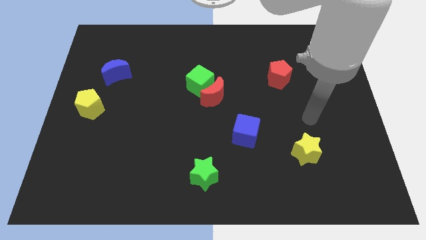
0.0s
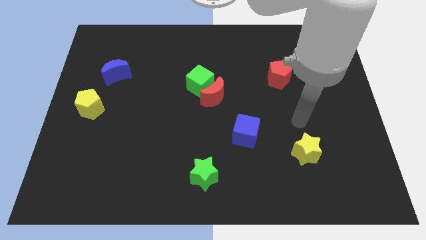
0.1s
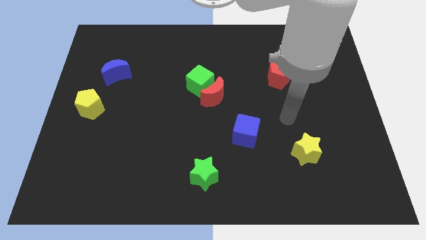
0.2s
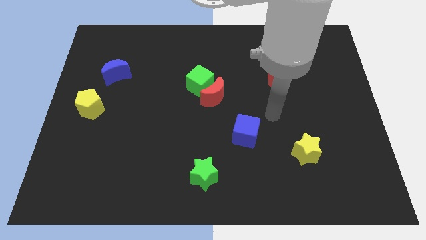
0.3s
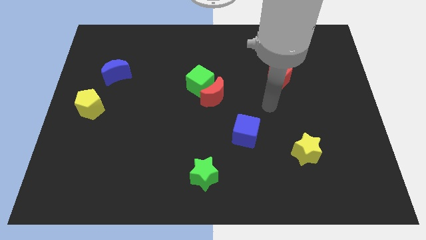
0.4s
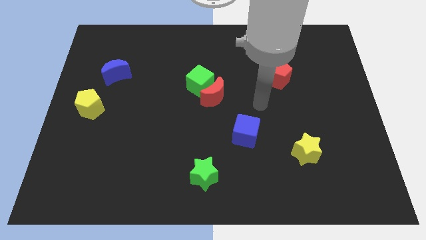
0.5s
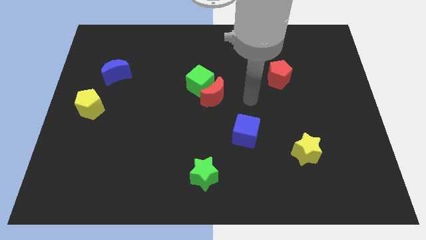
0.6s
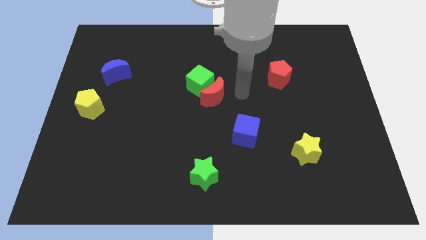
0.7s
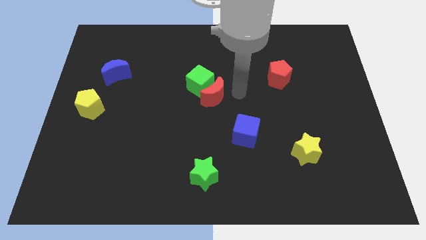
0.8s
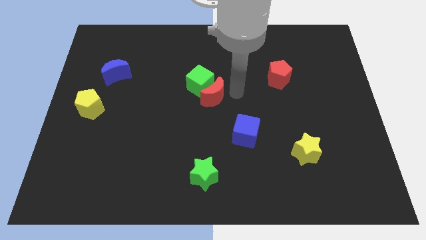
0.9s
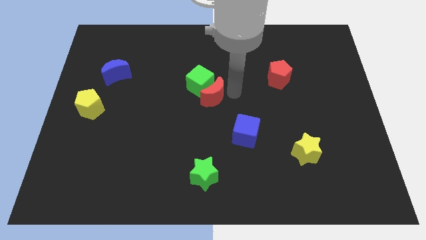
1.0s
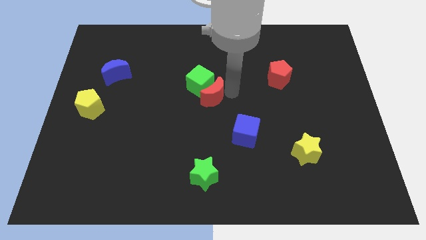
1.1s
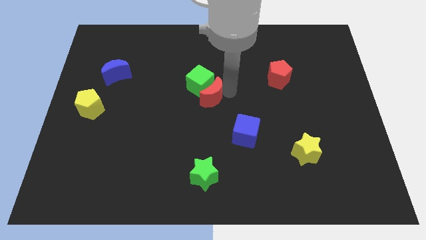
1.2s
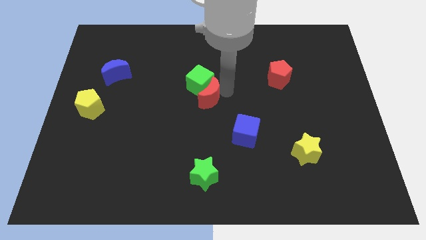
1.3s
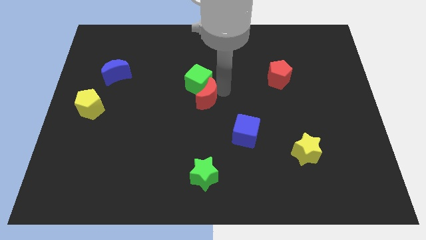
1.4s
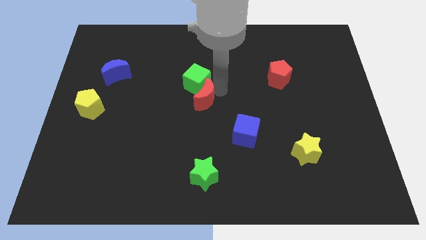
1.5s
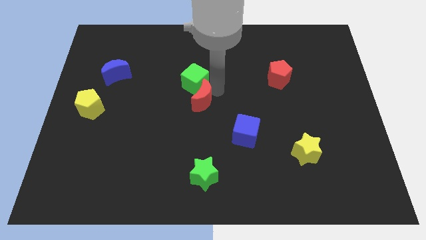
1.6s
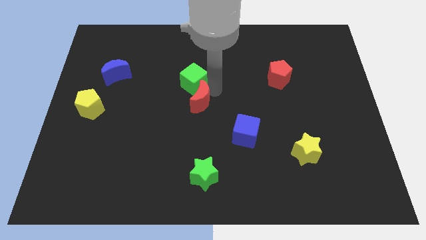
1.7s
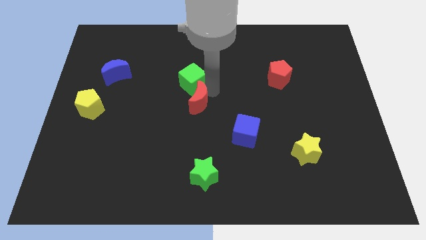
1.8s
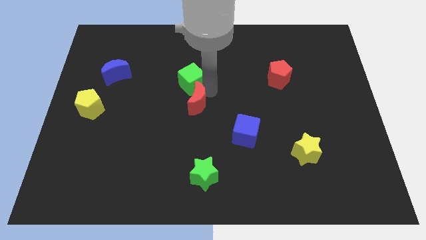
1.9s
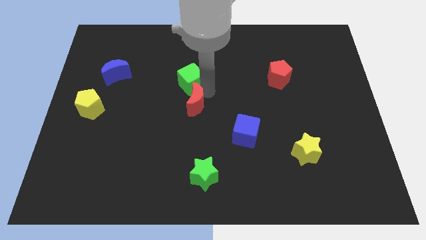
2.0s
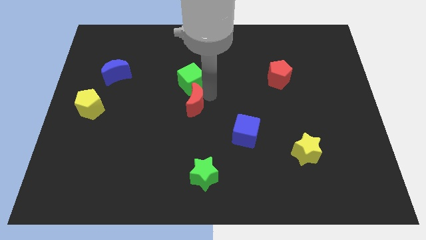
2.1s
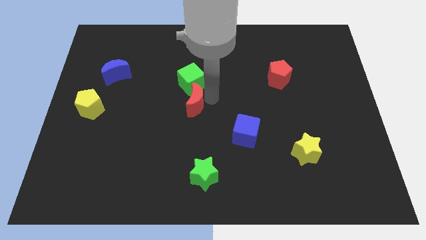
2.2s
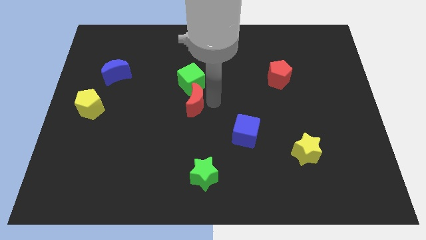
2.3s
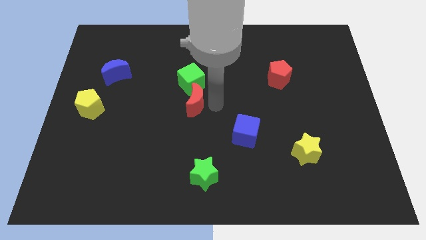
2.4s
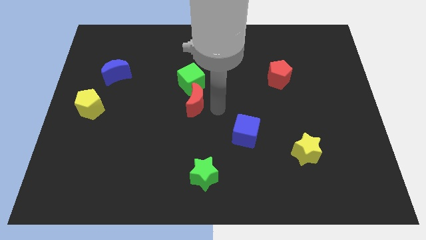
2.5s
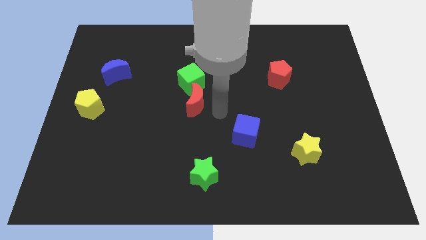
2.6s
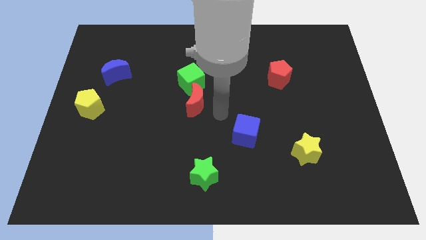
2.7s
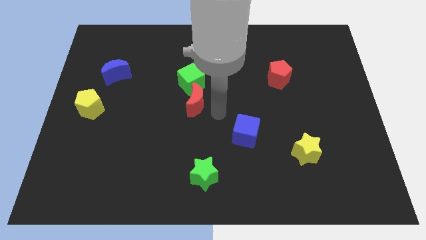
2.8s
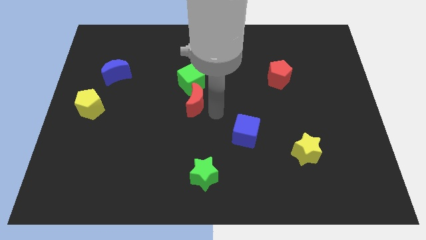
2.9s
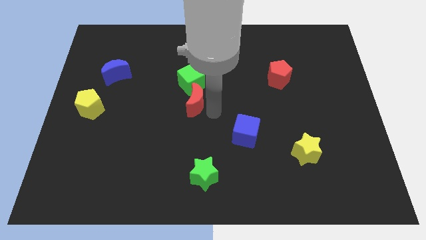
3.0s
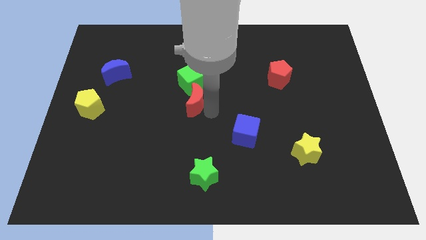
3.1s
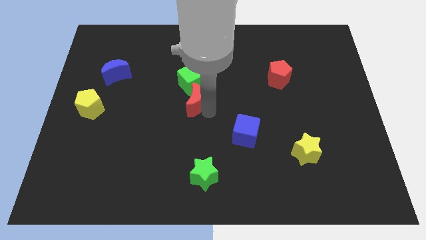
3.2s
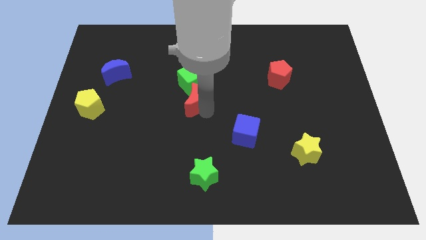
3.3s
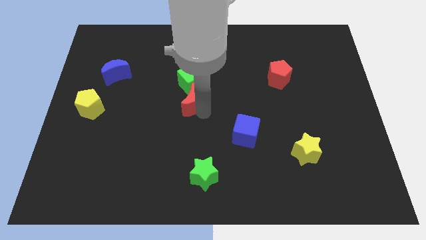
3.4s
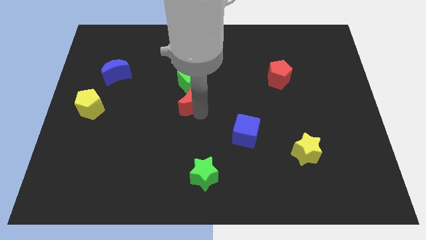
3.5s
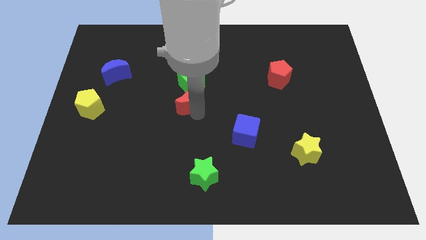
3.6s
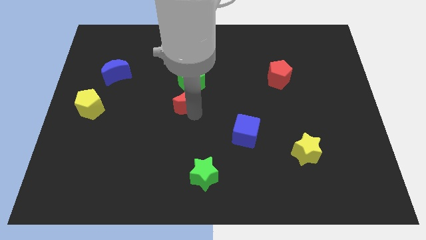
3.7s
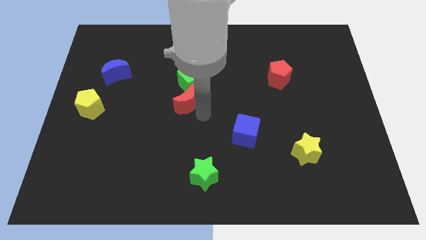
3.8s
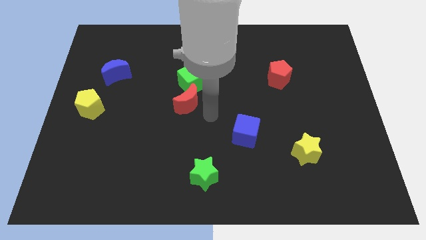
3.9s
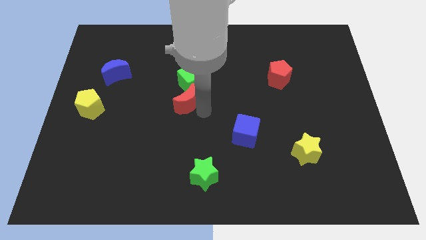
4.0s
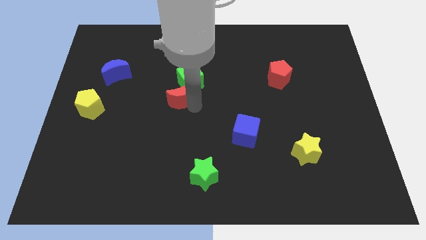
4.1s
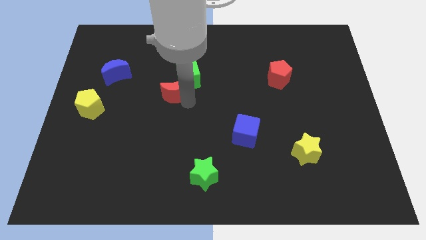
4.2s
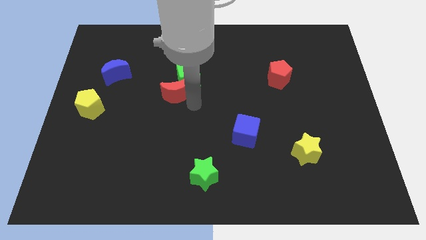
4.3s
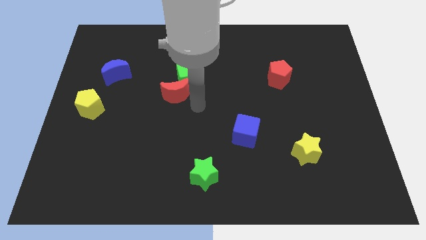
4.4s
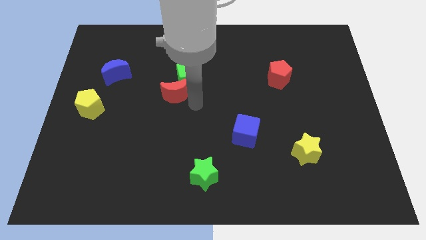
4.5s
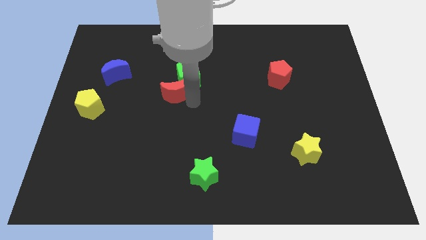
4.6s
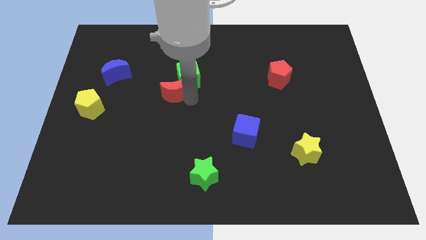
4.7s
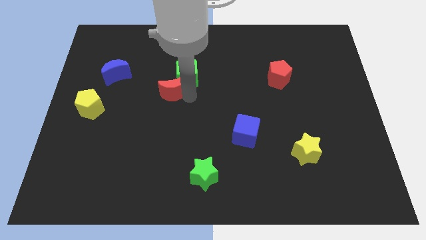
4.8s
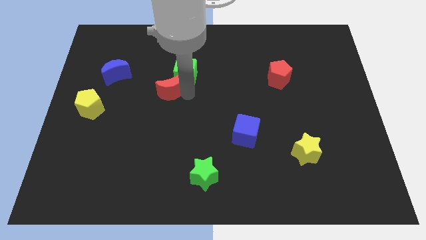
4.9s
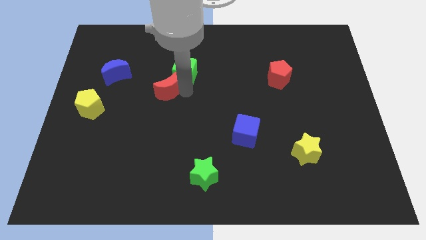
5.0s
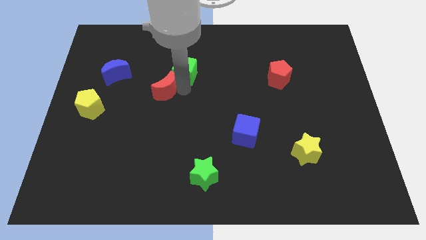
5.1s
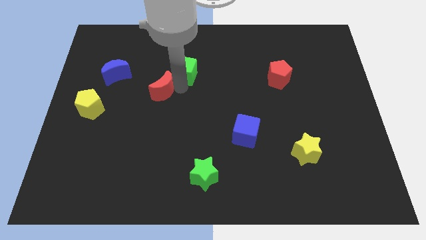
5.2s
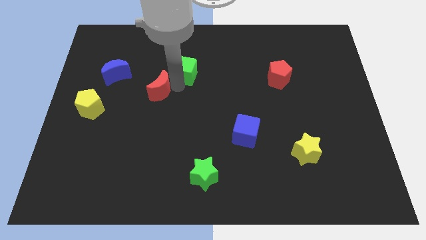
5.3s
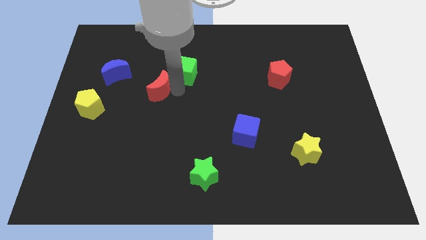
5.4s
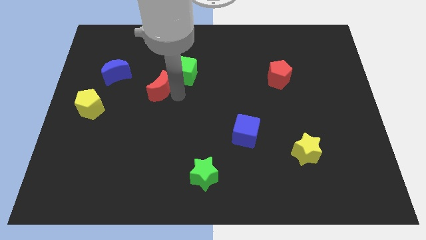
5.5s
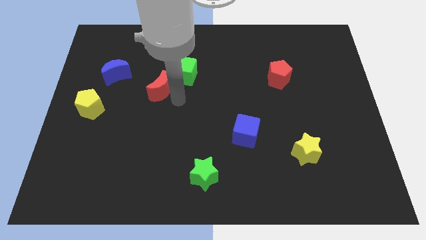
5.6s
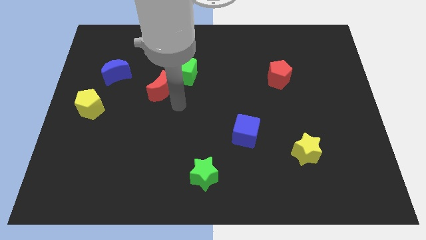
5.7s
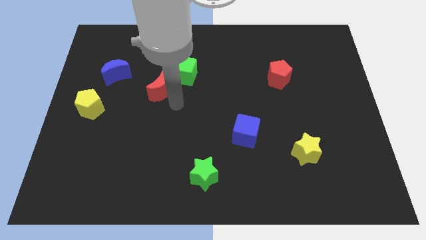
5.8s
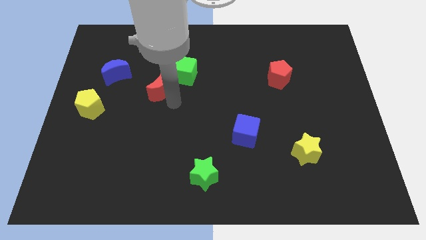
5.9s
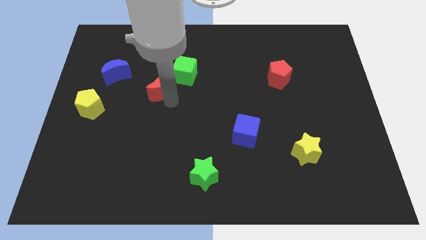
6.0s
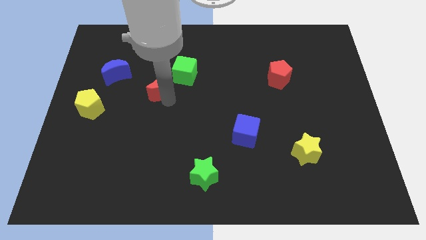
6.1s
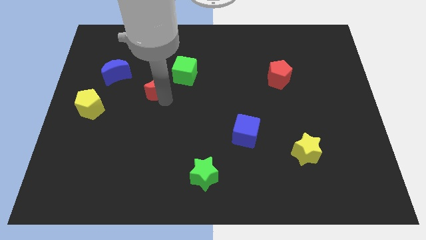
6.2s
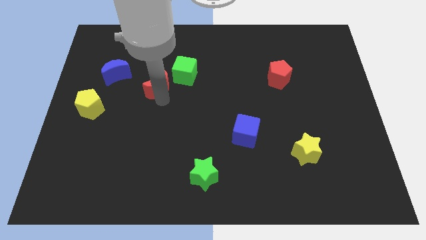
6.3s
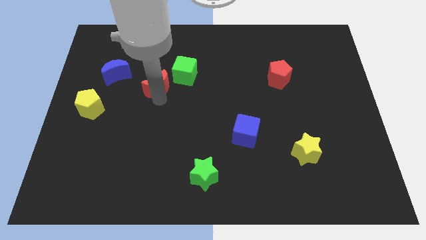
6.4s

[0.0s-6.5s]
slide the red moon to the left side of the green cube
